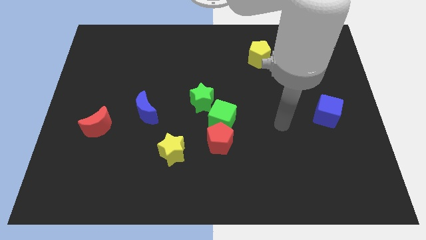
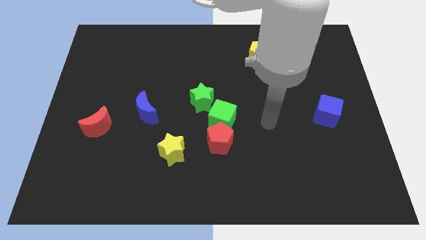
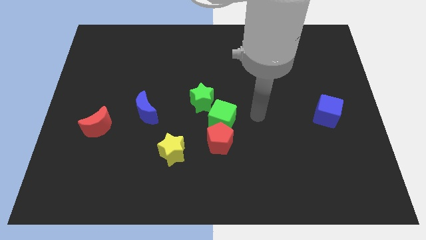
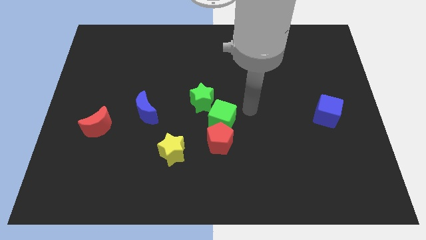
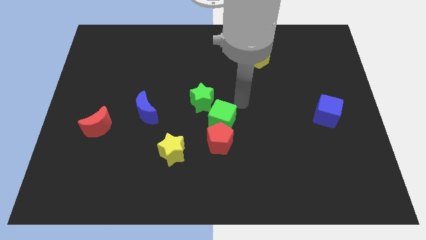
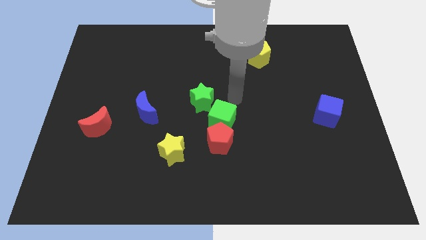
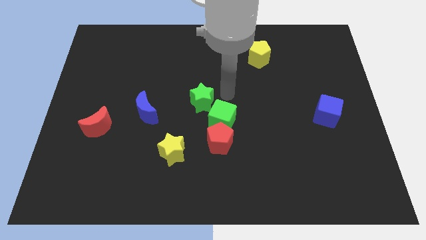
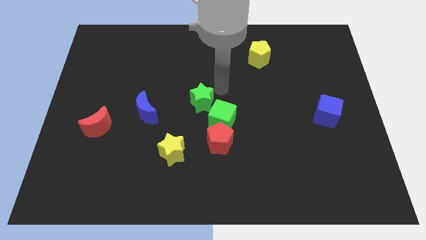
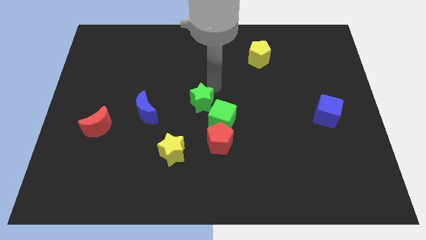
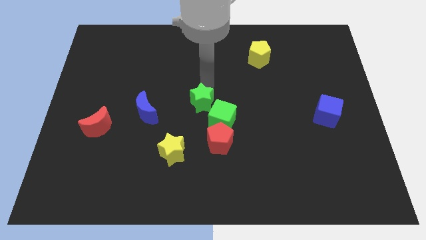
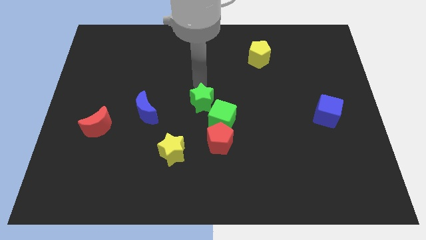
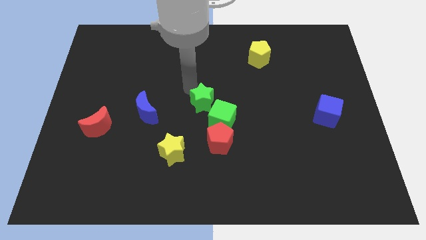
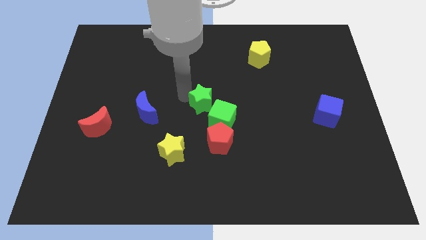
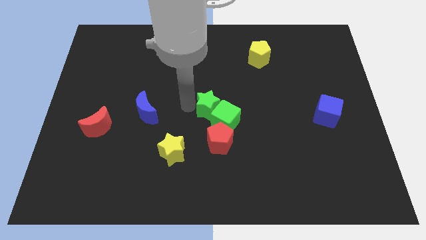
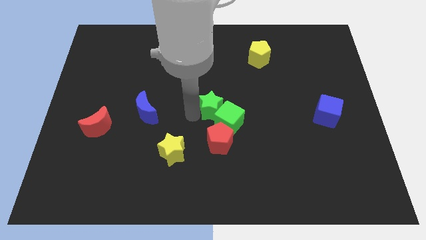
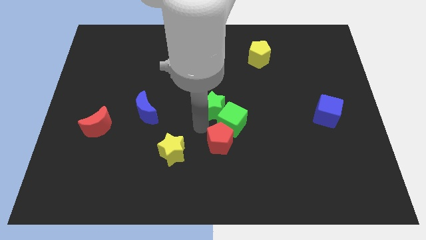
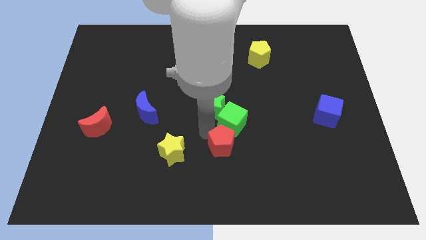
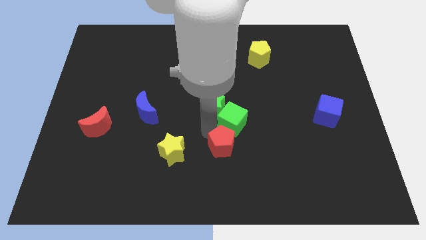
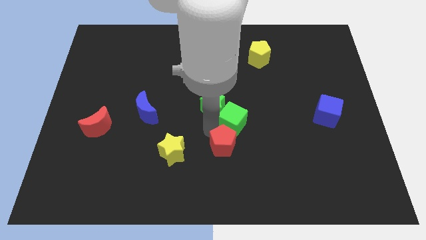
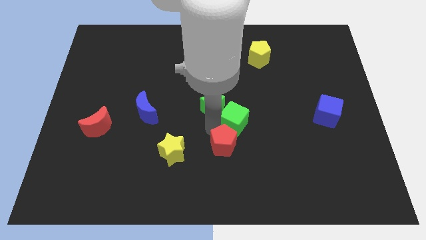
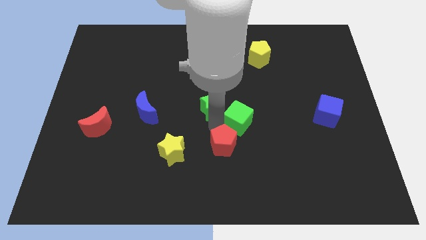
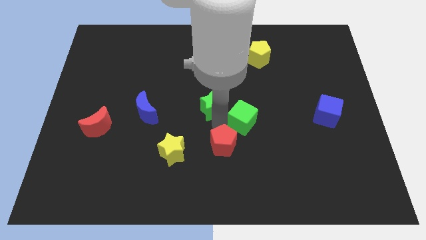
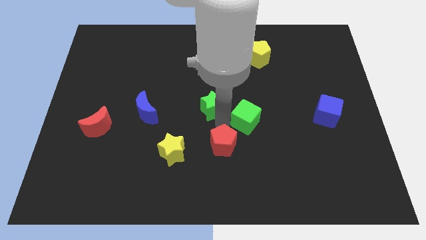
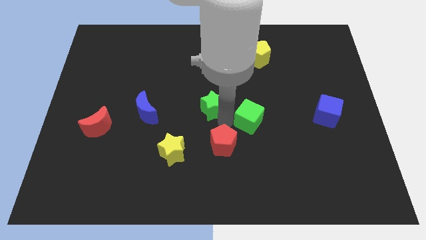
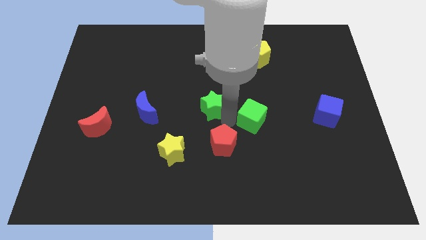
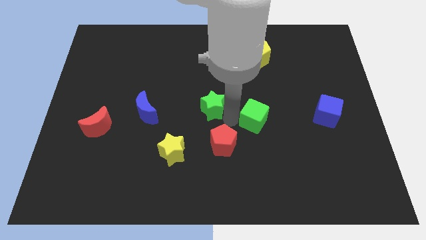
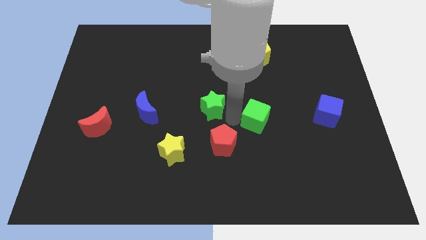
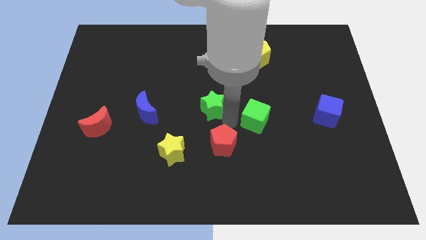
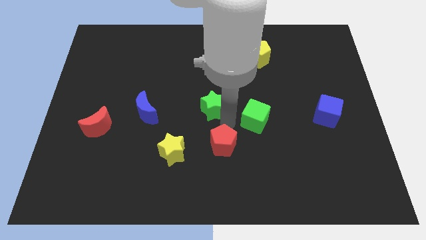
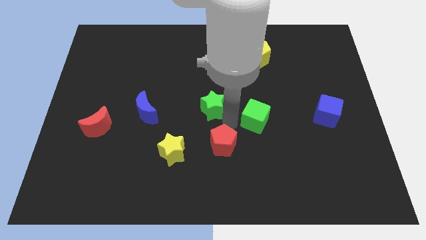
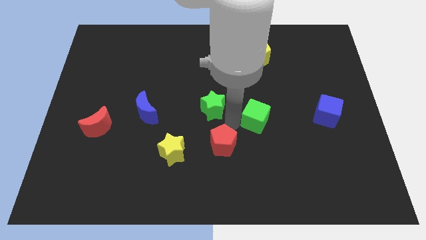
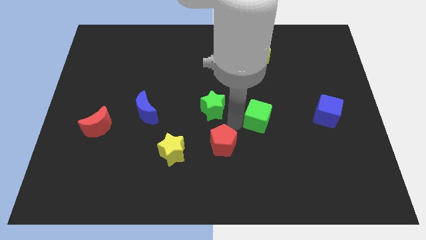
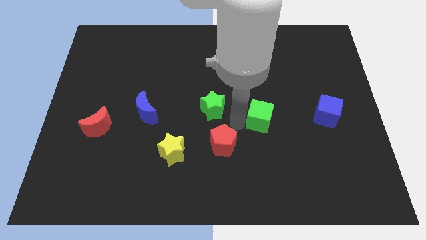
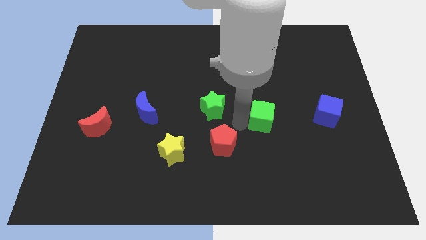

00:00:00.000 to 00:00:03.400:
move the green cube away from the red pentagon and green star

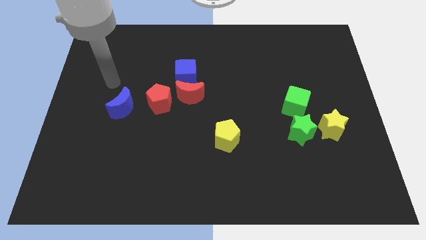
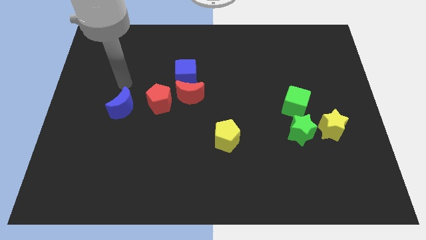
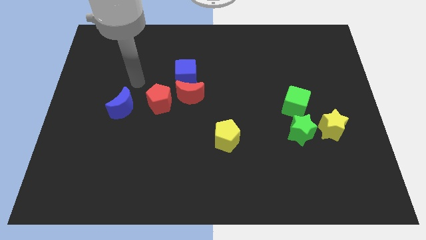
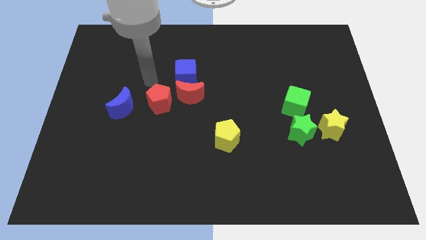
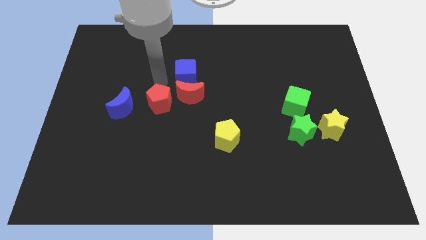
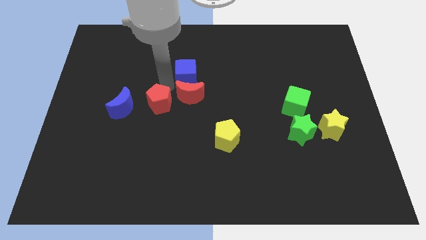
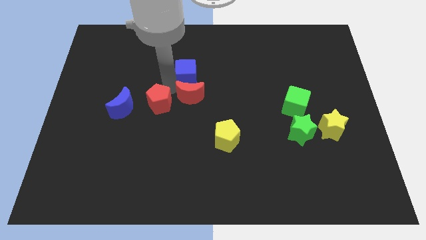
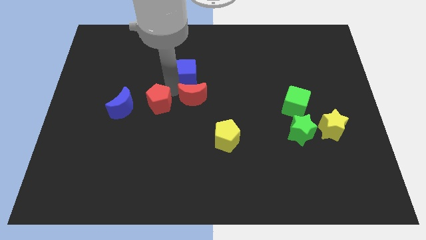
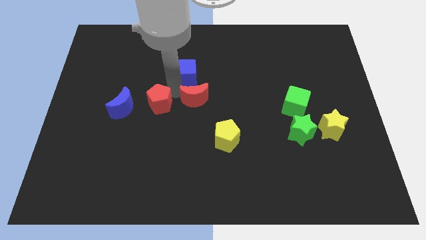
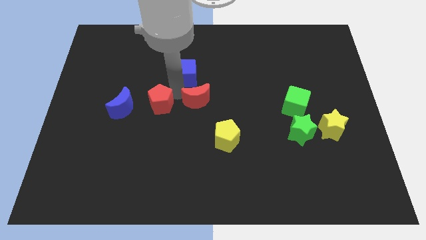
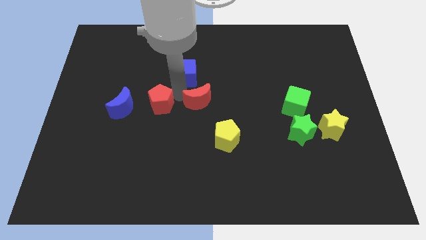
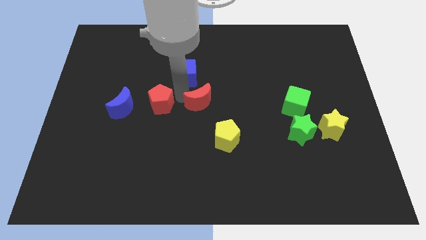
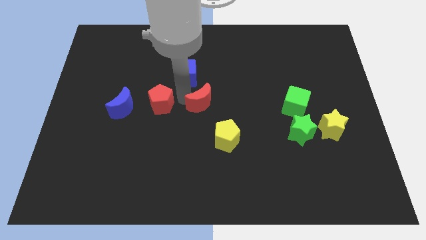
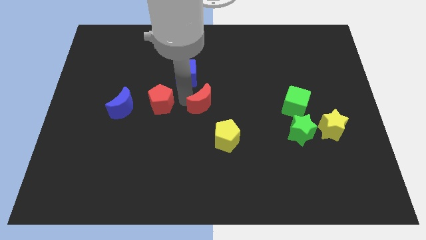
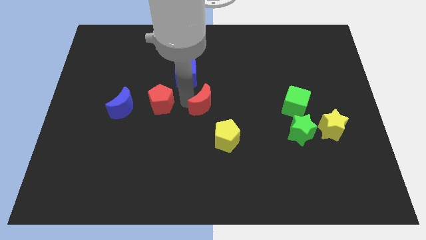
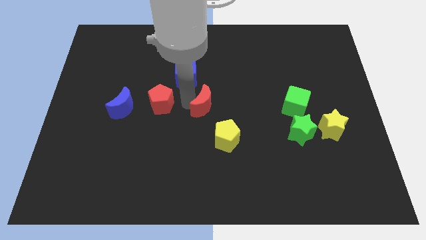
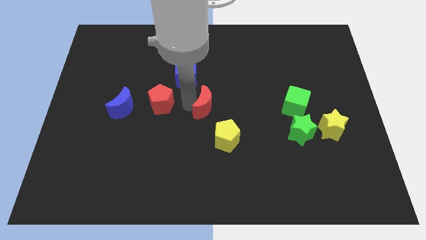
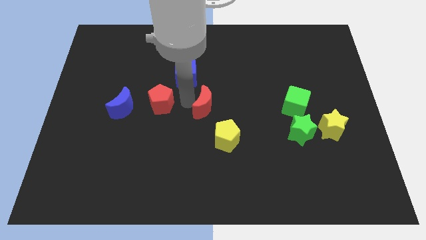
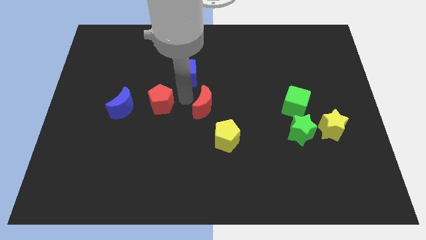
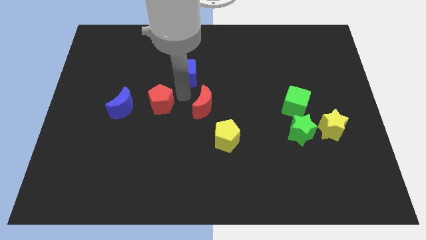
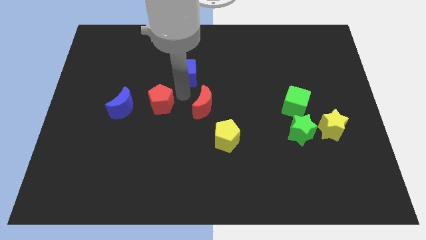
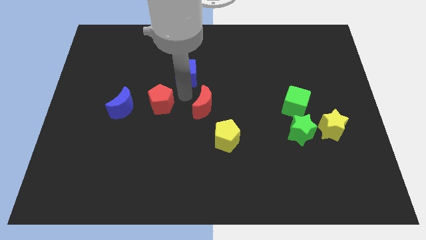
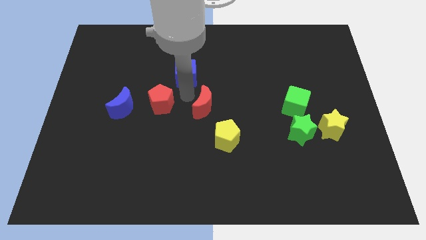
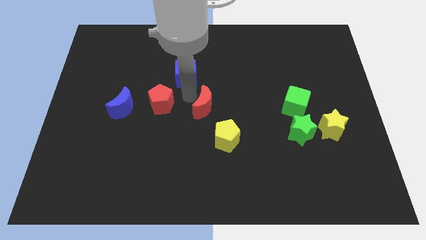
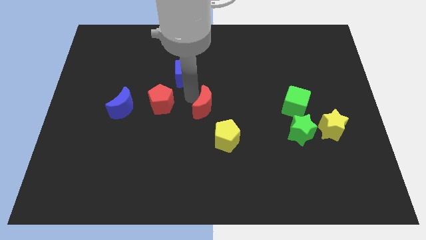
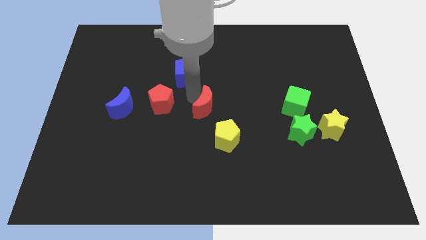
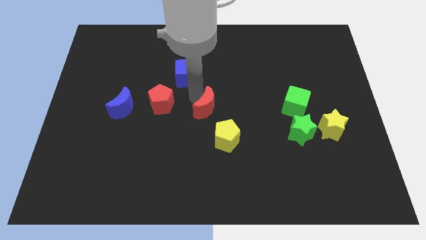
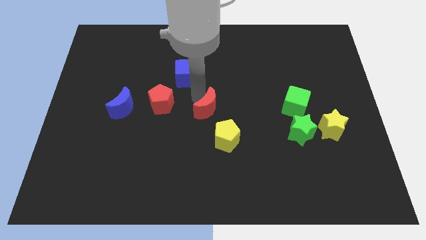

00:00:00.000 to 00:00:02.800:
separate the red moon from the blue cube and red pentagon

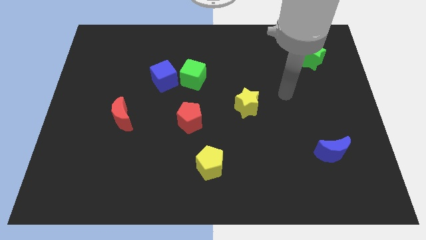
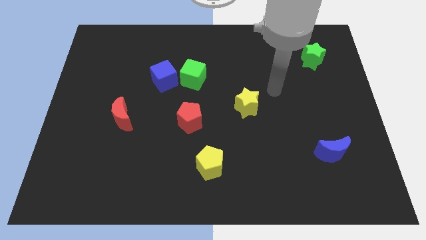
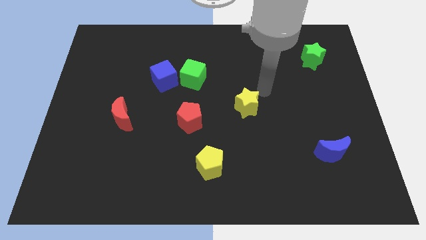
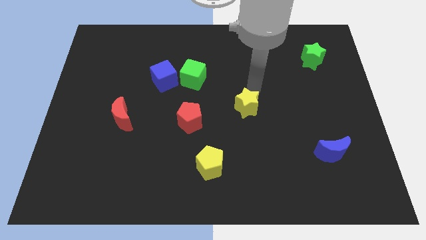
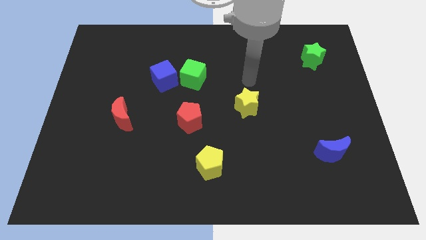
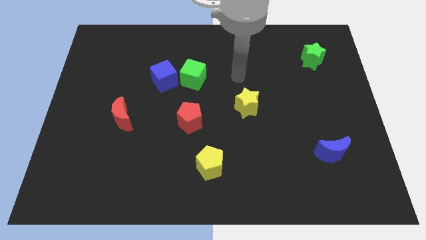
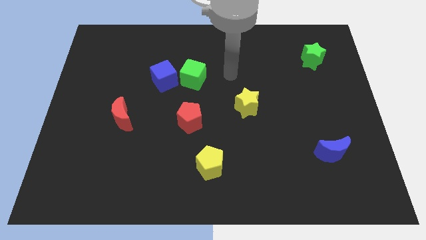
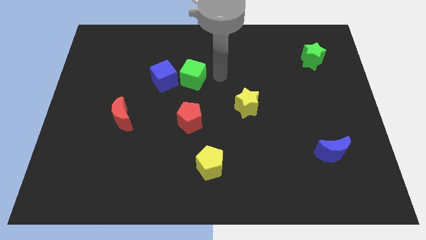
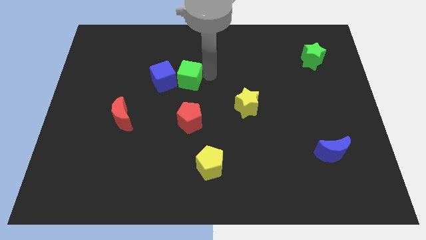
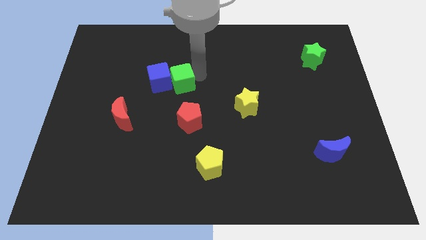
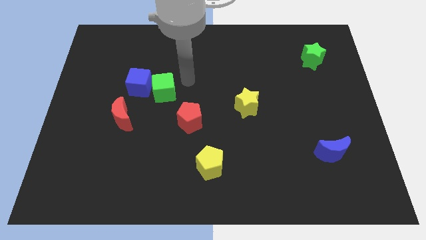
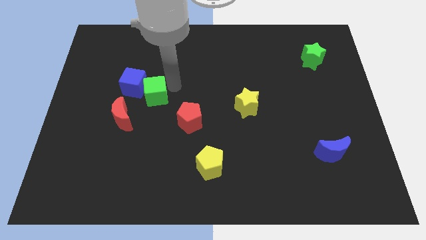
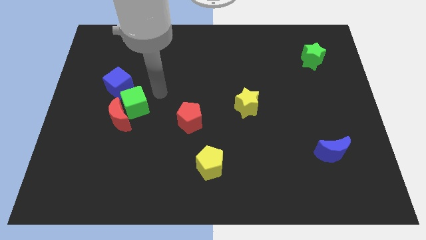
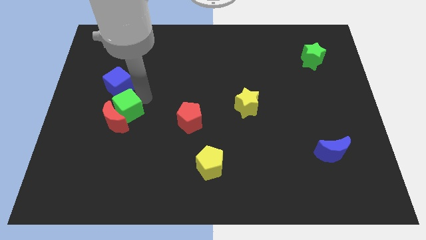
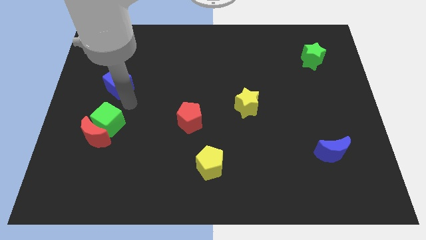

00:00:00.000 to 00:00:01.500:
separate the blue cube from the green cube

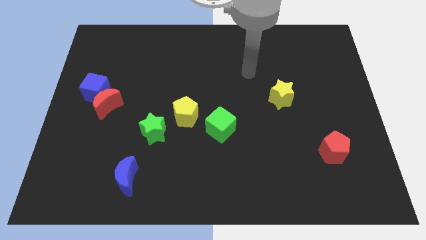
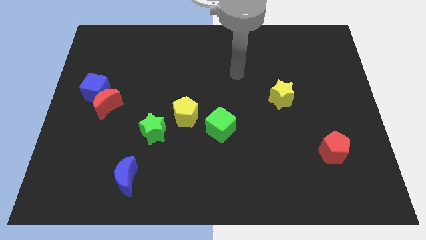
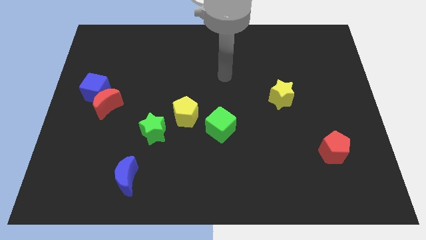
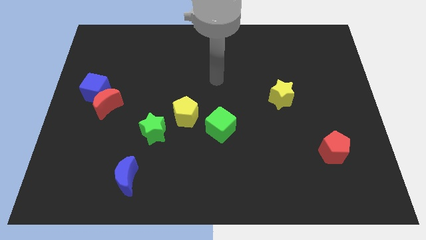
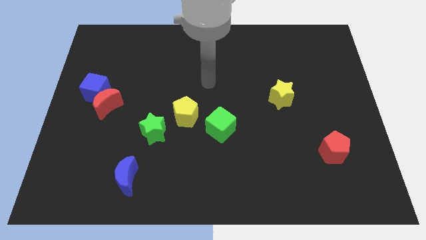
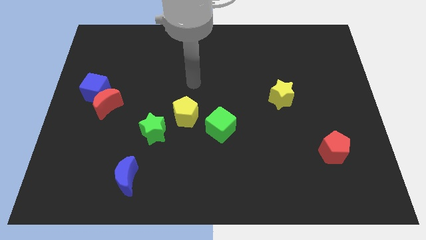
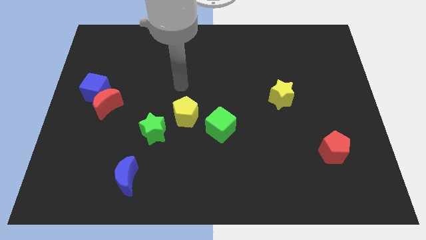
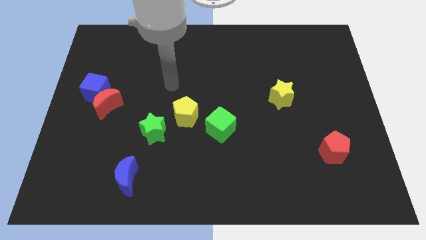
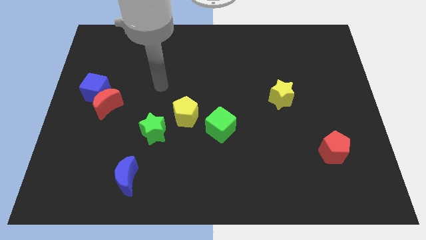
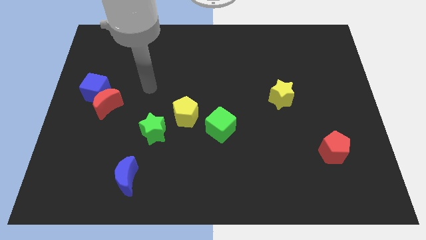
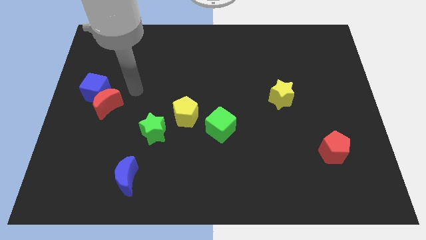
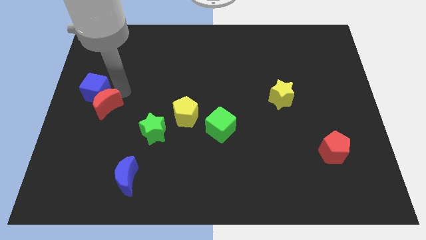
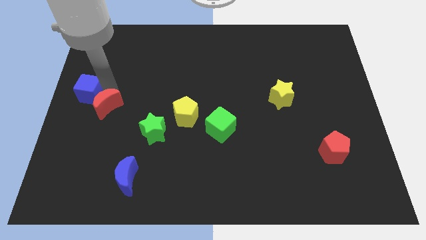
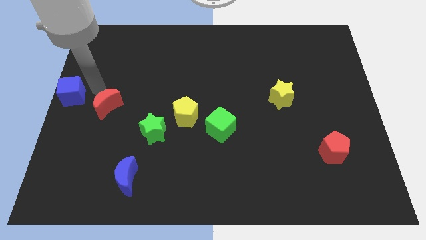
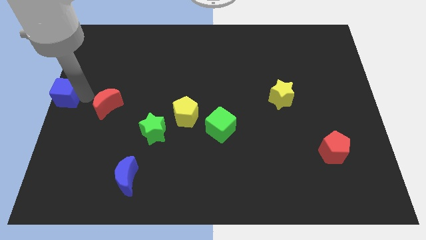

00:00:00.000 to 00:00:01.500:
separate the red moon from the blue cube

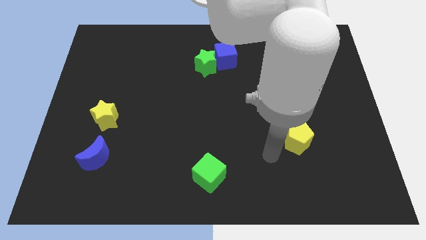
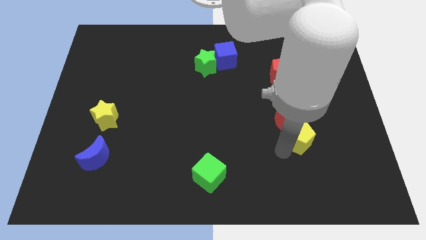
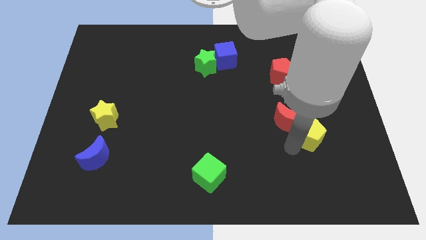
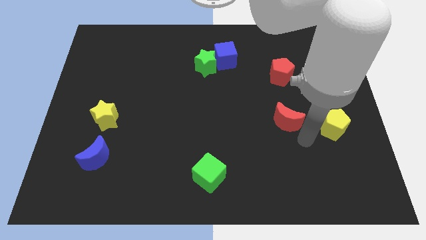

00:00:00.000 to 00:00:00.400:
pull the red moon apart from the yellow pentagon
